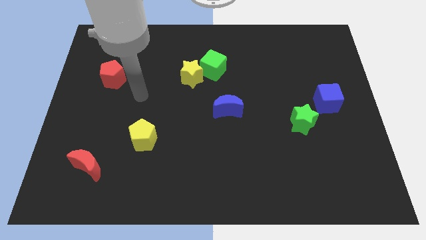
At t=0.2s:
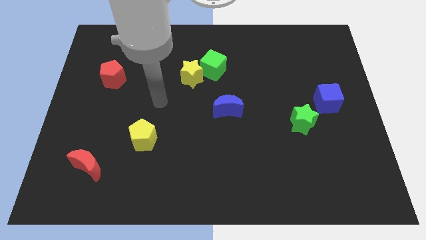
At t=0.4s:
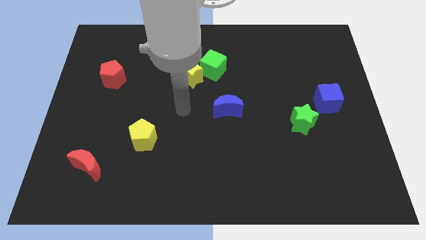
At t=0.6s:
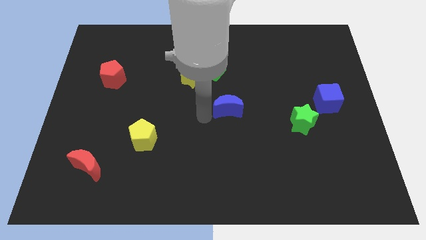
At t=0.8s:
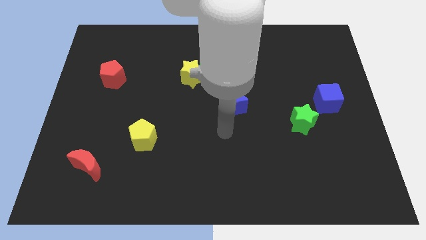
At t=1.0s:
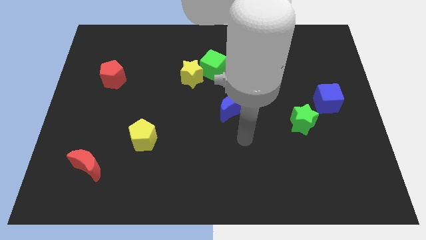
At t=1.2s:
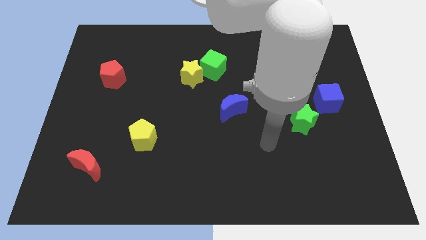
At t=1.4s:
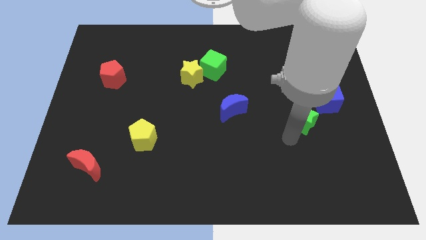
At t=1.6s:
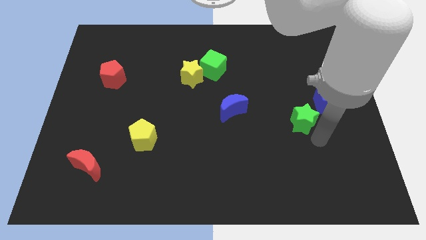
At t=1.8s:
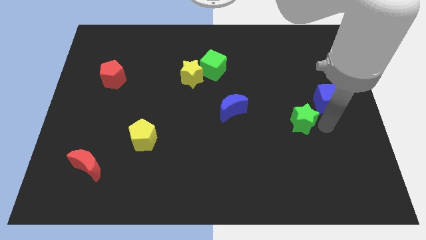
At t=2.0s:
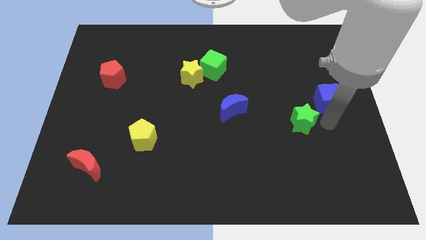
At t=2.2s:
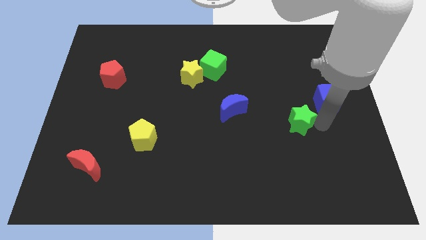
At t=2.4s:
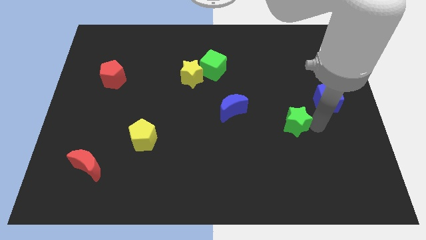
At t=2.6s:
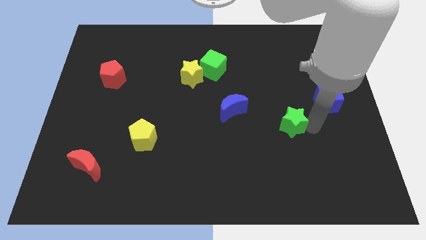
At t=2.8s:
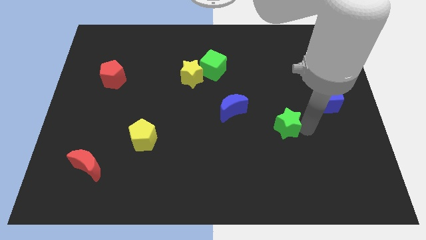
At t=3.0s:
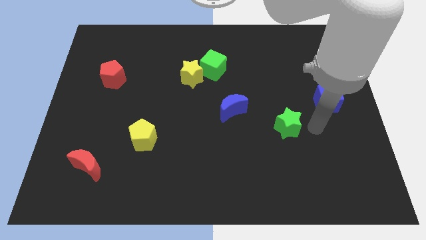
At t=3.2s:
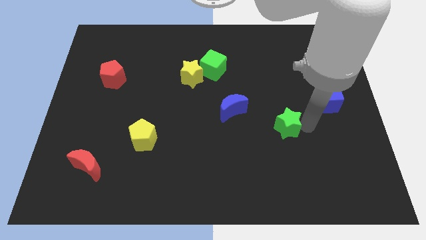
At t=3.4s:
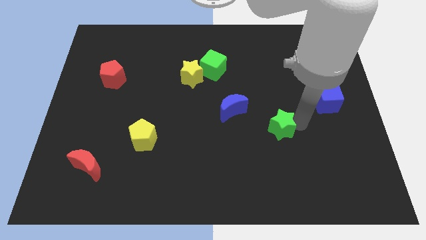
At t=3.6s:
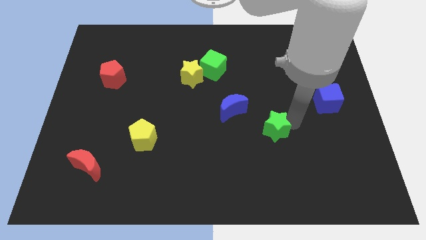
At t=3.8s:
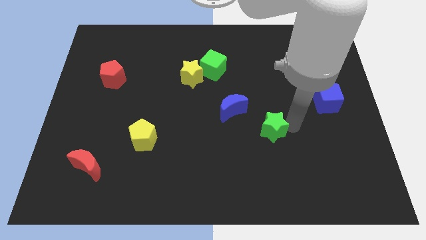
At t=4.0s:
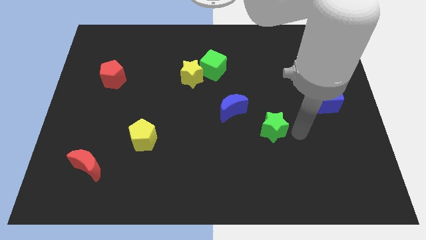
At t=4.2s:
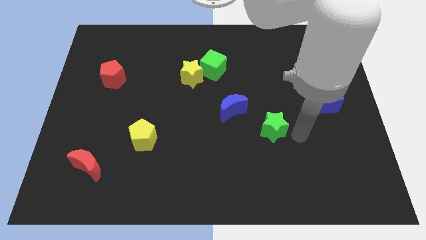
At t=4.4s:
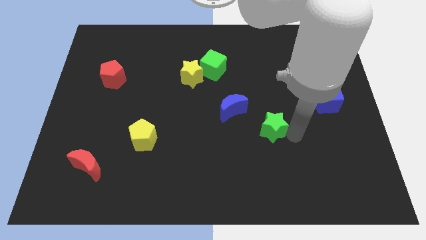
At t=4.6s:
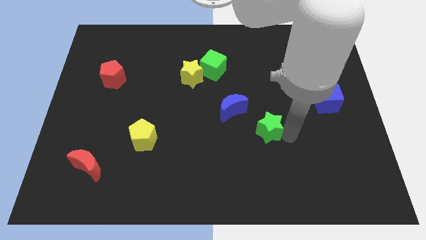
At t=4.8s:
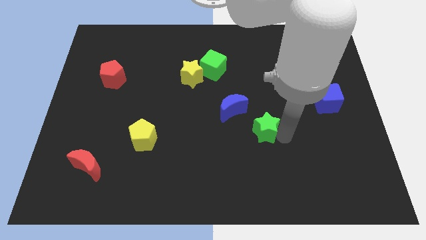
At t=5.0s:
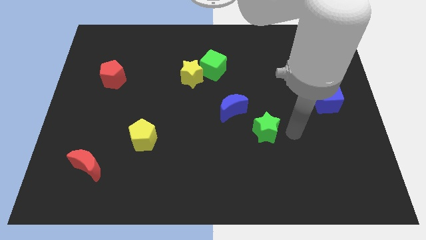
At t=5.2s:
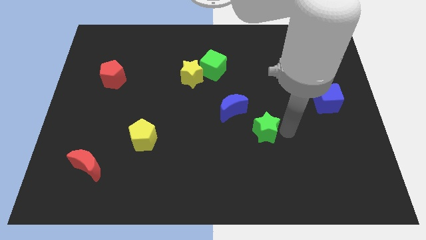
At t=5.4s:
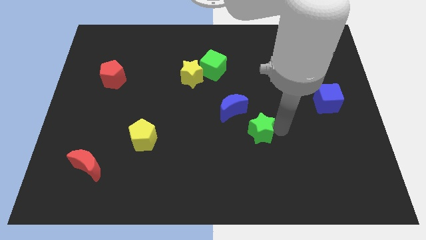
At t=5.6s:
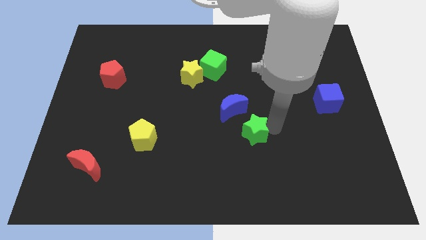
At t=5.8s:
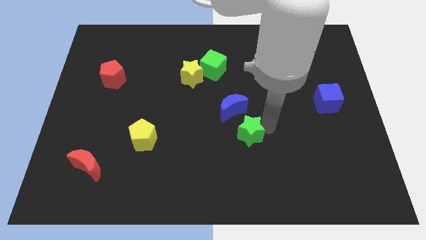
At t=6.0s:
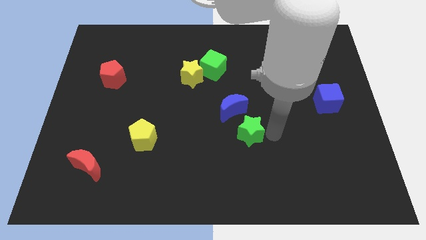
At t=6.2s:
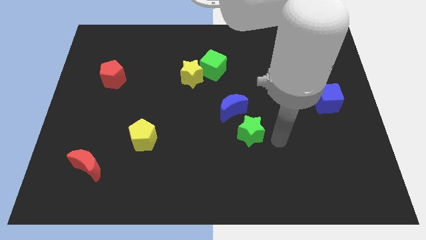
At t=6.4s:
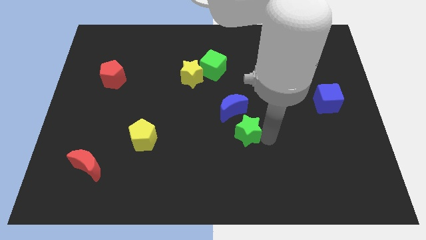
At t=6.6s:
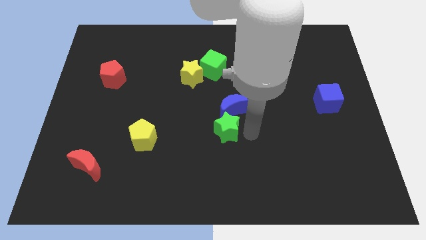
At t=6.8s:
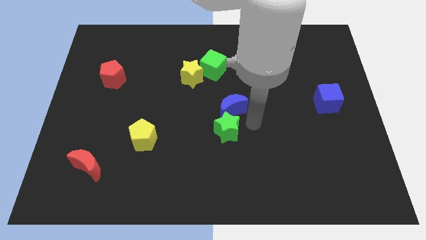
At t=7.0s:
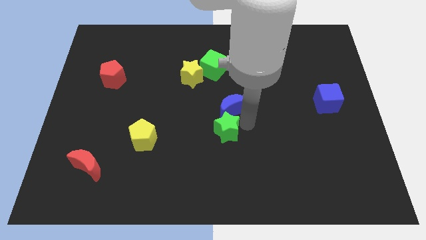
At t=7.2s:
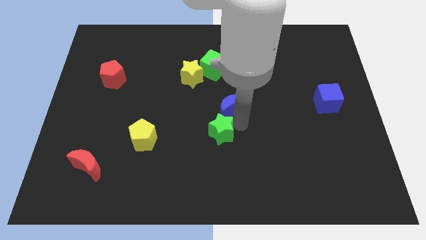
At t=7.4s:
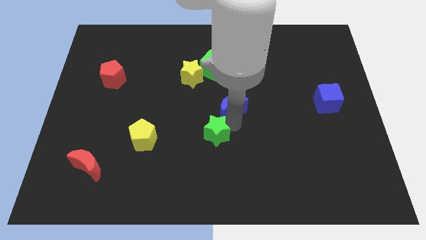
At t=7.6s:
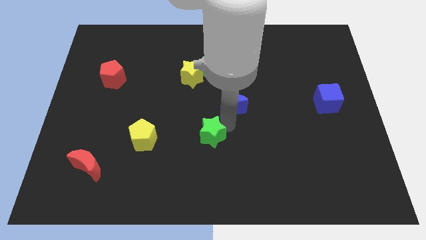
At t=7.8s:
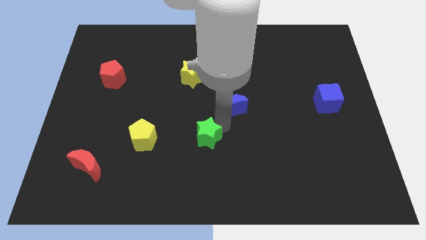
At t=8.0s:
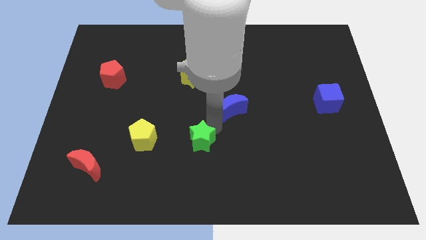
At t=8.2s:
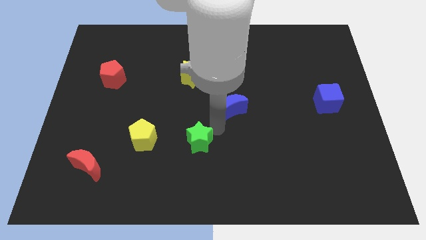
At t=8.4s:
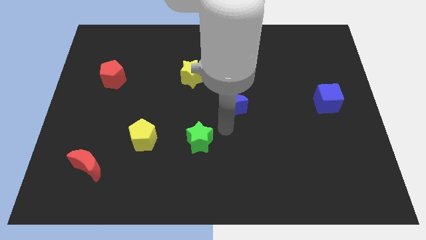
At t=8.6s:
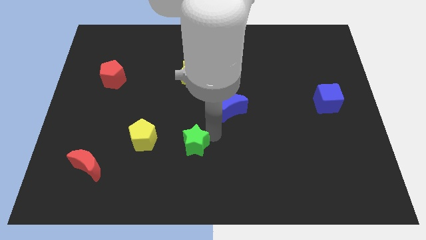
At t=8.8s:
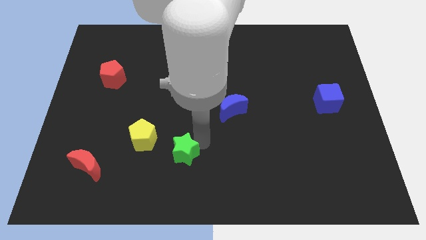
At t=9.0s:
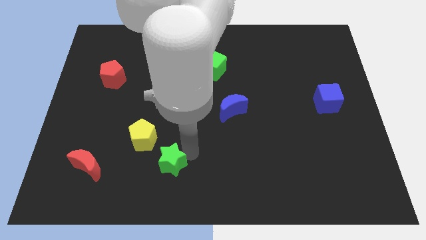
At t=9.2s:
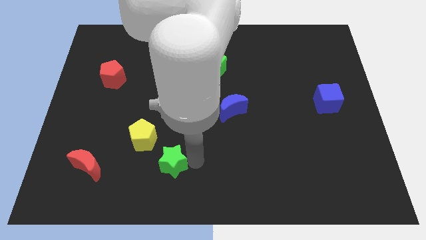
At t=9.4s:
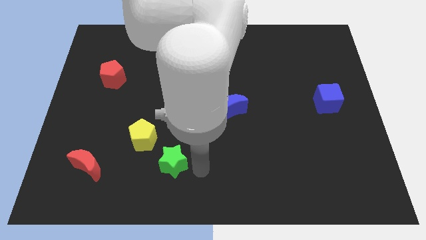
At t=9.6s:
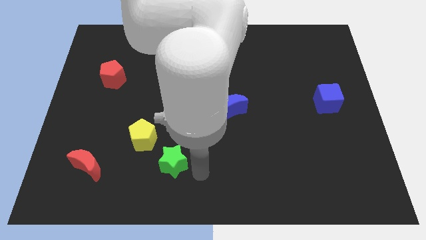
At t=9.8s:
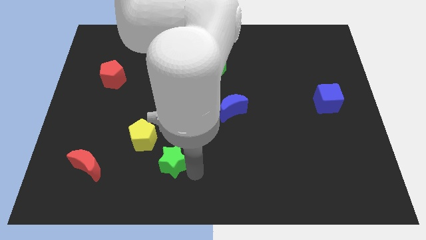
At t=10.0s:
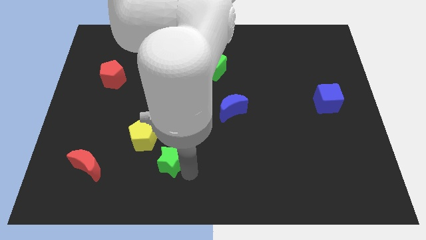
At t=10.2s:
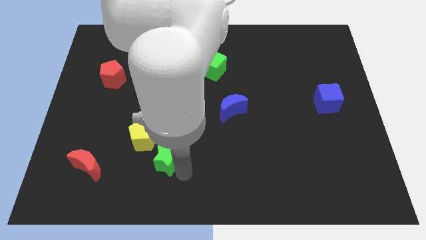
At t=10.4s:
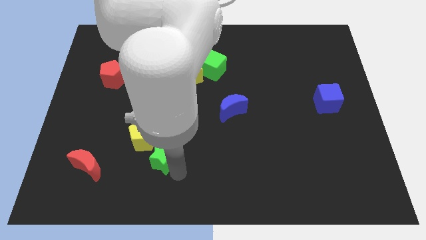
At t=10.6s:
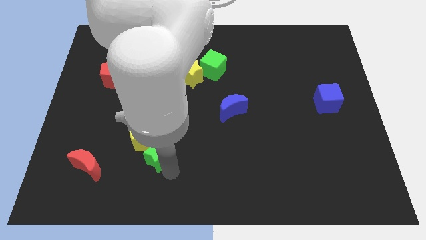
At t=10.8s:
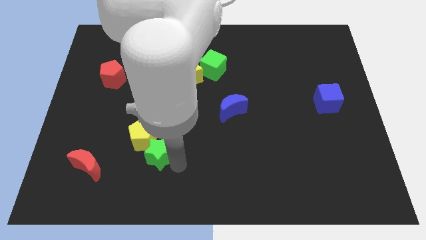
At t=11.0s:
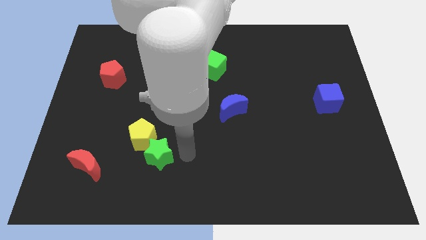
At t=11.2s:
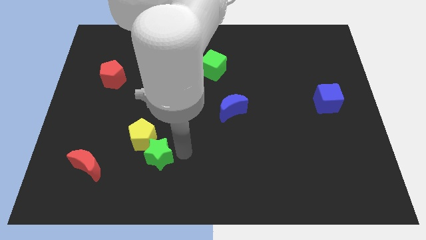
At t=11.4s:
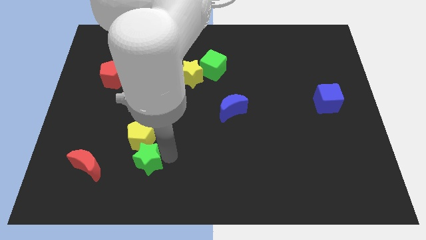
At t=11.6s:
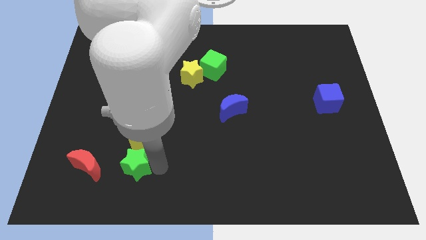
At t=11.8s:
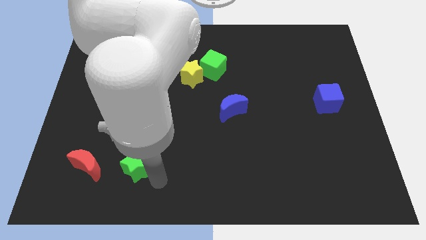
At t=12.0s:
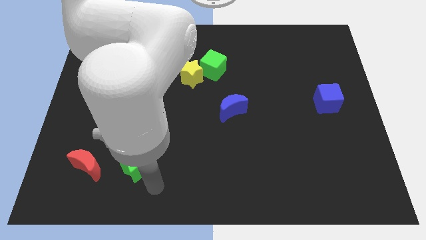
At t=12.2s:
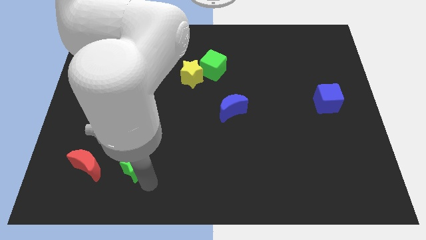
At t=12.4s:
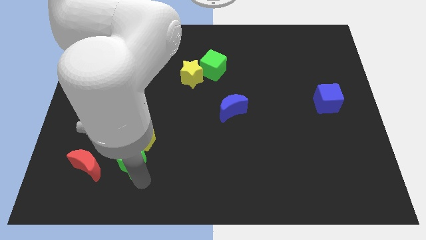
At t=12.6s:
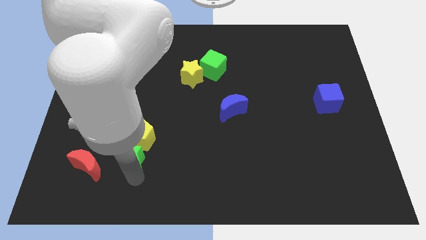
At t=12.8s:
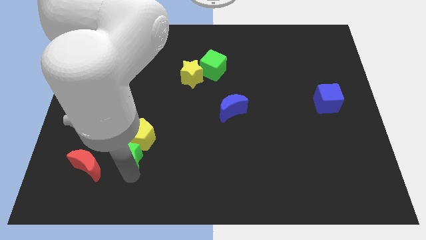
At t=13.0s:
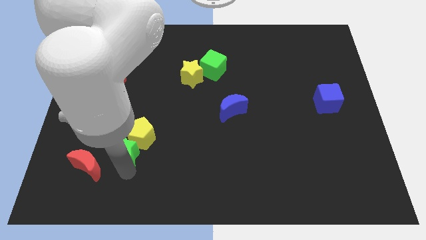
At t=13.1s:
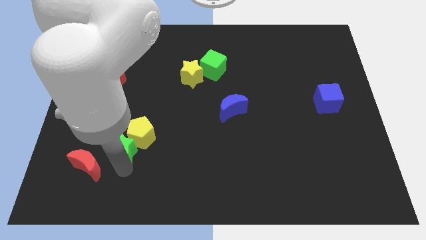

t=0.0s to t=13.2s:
put the green star to the left side of the yellow pentagon
